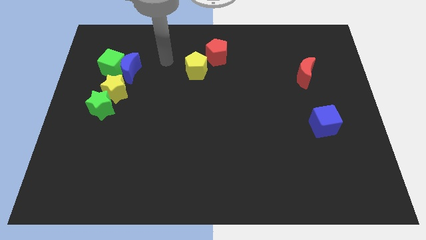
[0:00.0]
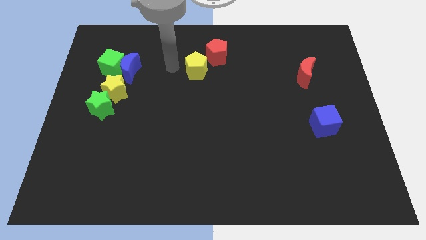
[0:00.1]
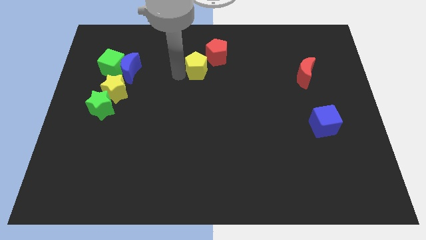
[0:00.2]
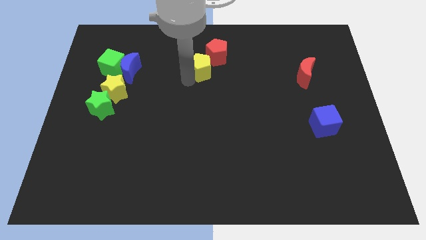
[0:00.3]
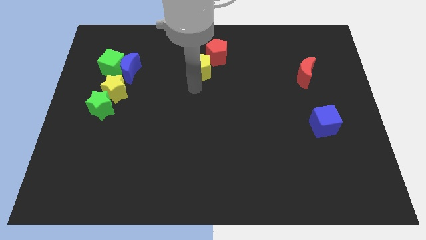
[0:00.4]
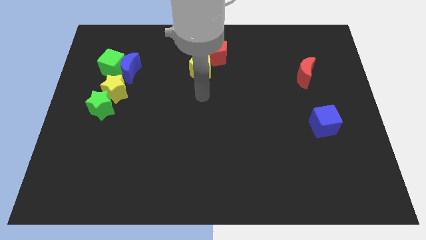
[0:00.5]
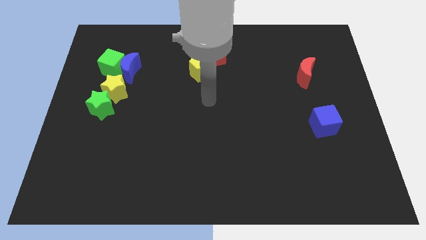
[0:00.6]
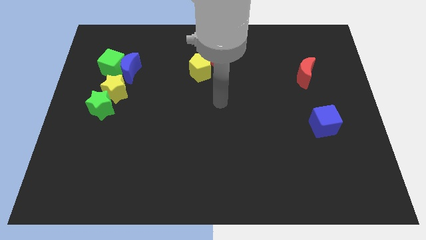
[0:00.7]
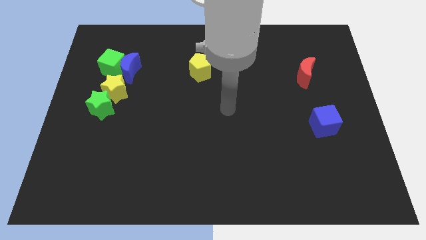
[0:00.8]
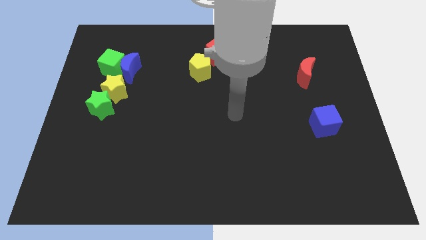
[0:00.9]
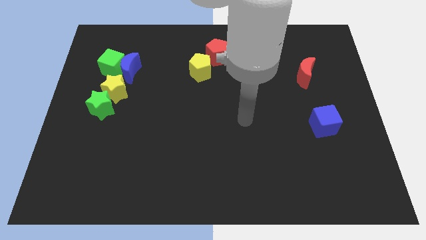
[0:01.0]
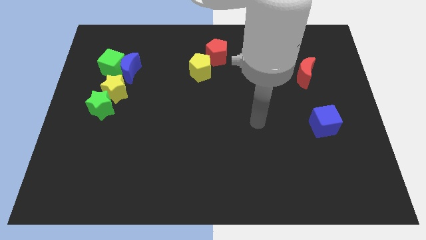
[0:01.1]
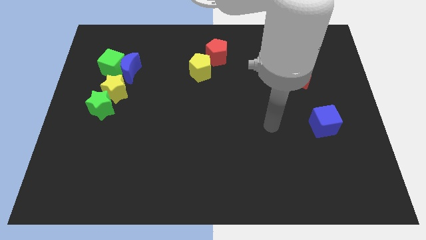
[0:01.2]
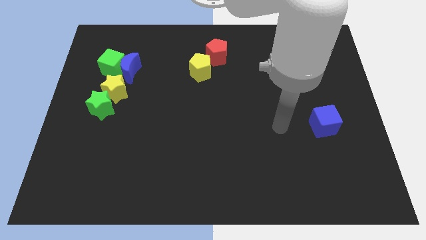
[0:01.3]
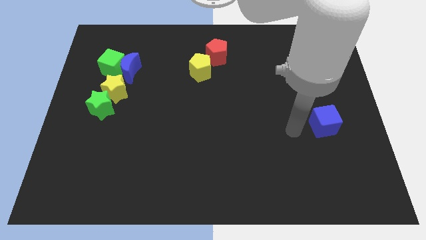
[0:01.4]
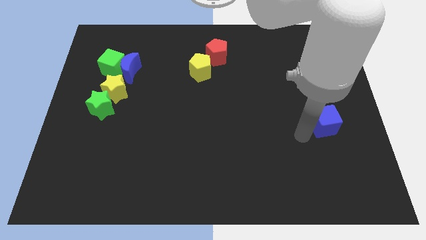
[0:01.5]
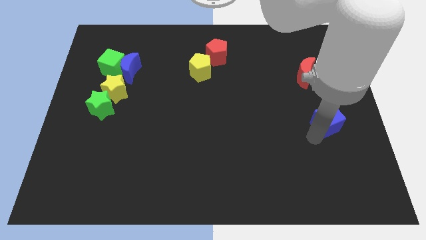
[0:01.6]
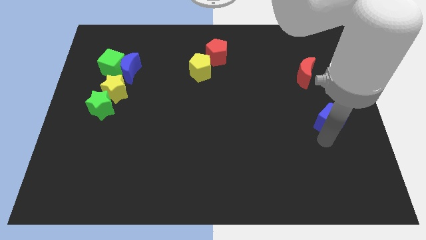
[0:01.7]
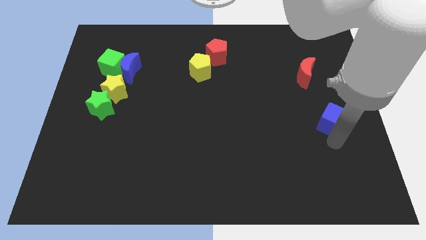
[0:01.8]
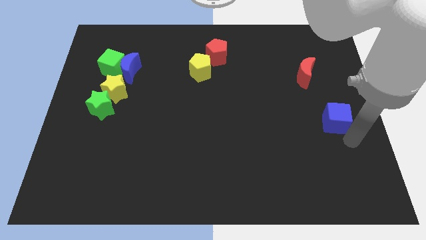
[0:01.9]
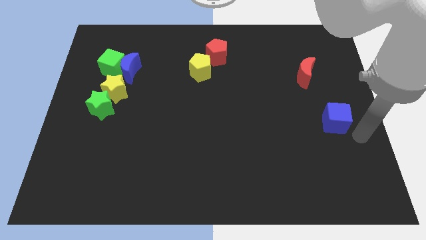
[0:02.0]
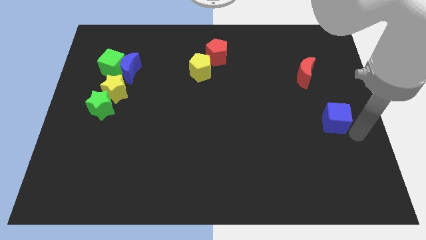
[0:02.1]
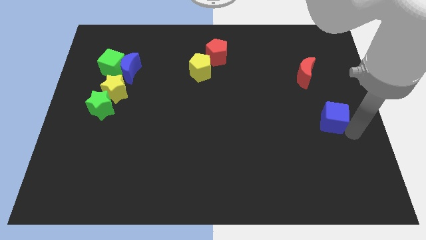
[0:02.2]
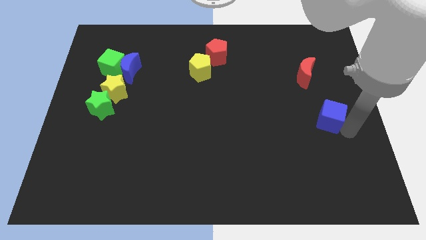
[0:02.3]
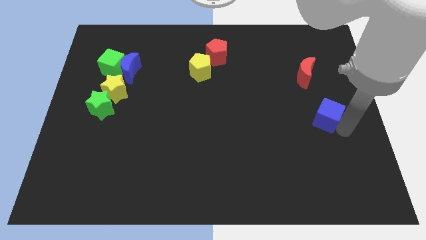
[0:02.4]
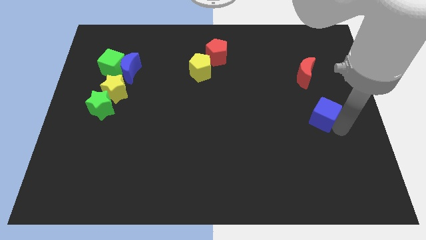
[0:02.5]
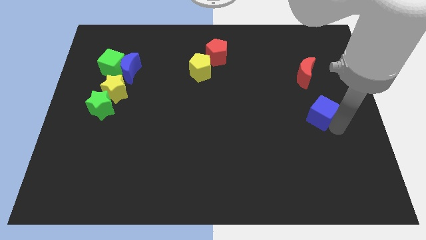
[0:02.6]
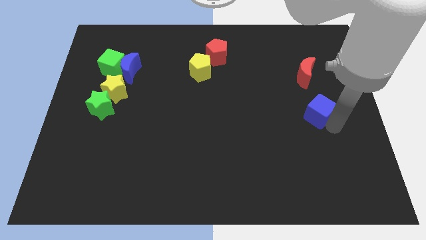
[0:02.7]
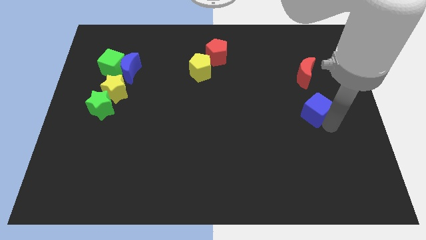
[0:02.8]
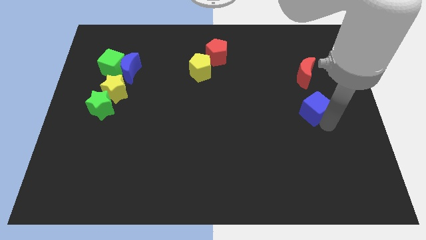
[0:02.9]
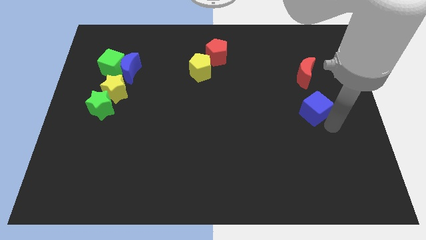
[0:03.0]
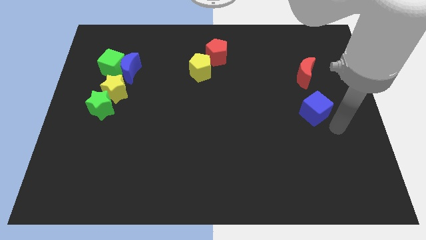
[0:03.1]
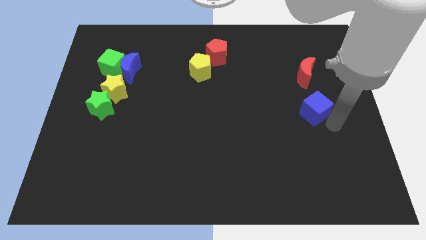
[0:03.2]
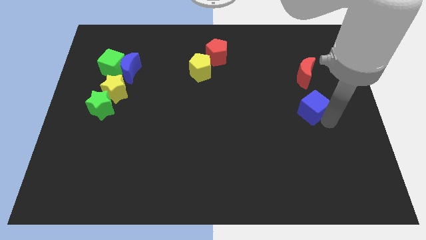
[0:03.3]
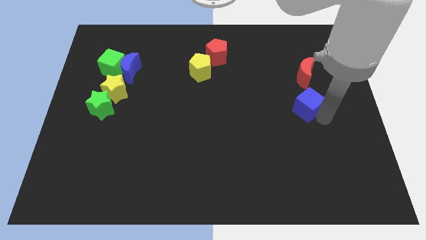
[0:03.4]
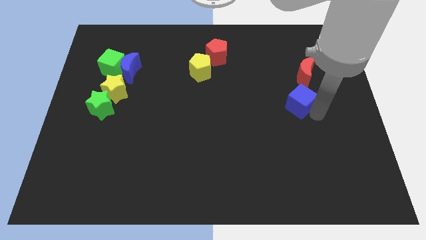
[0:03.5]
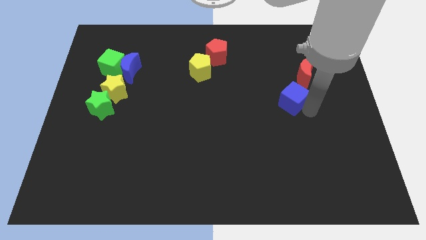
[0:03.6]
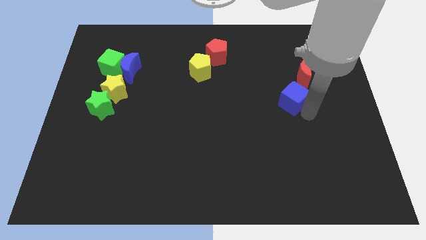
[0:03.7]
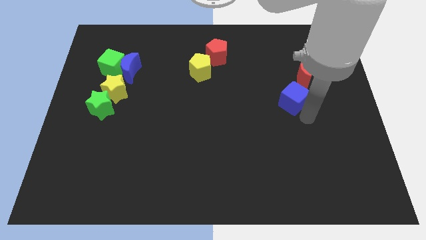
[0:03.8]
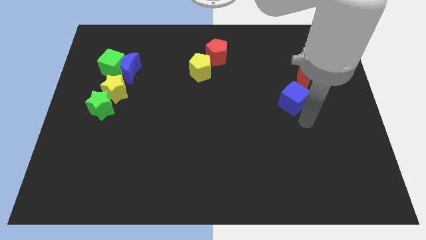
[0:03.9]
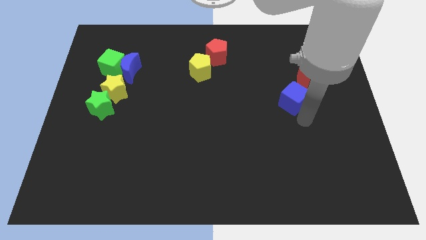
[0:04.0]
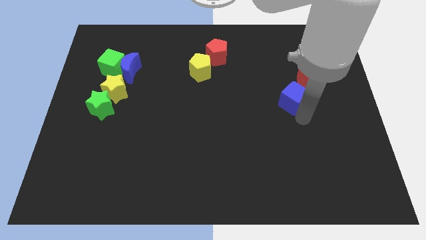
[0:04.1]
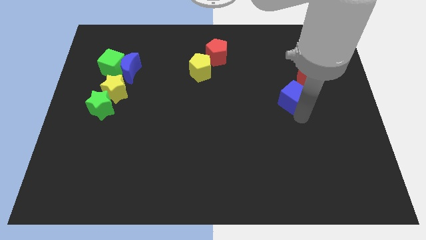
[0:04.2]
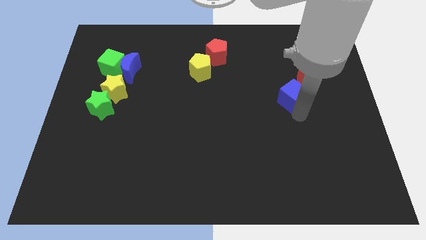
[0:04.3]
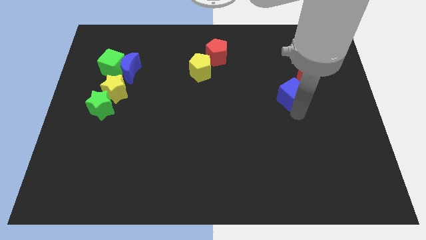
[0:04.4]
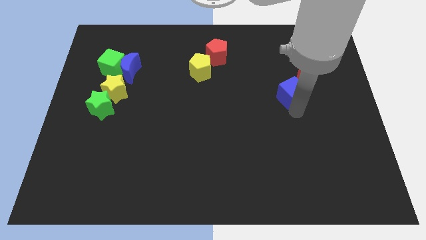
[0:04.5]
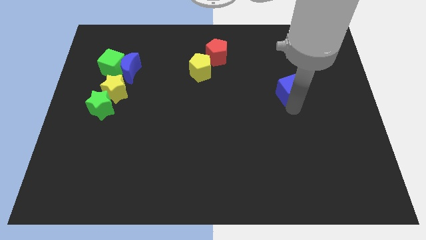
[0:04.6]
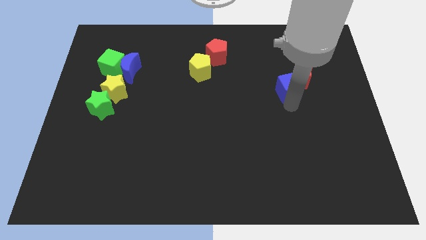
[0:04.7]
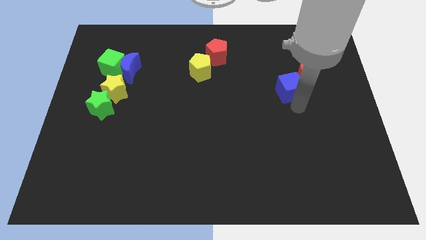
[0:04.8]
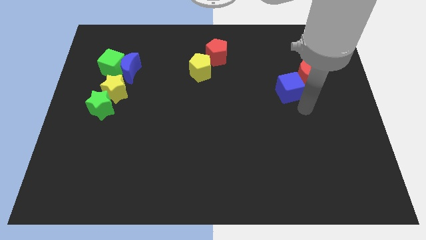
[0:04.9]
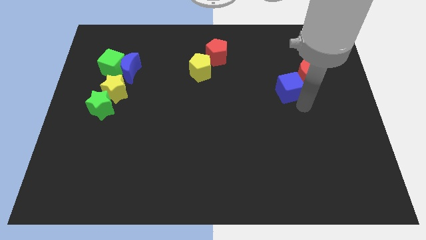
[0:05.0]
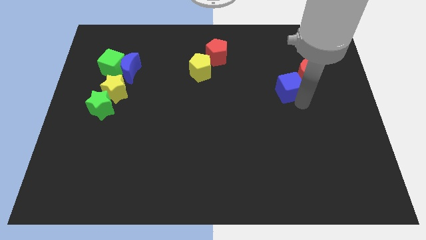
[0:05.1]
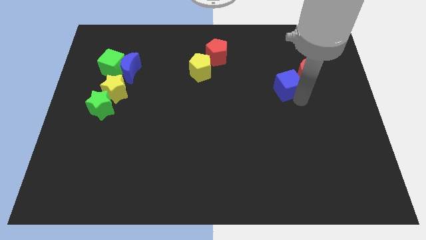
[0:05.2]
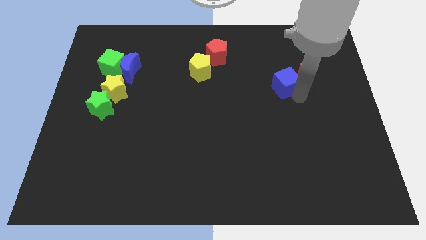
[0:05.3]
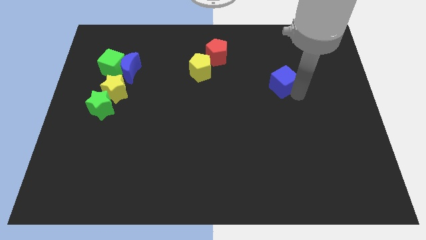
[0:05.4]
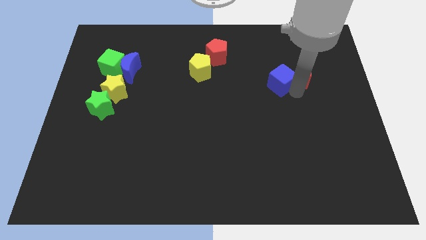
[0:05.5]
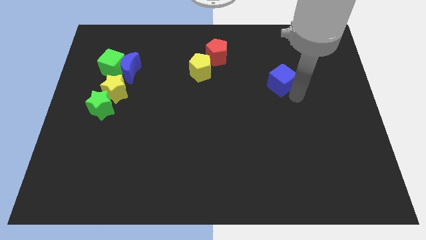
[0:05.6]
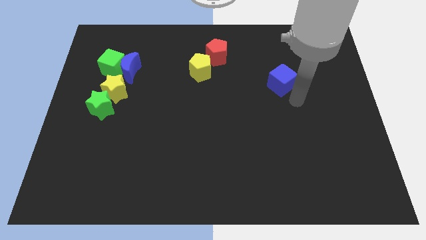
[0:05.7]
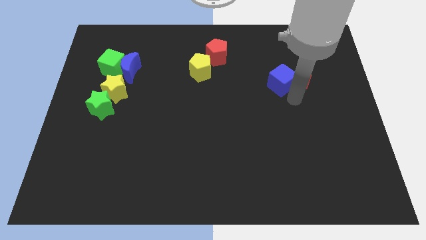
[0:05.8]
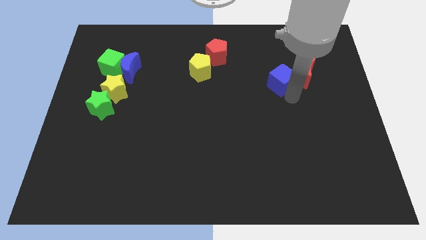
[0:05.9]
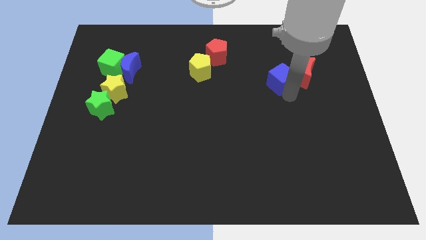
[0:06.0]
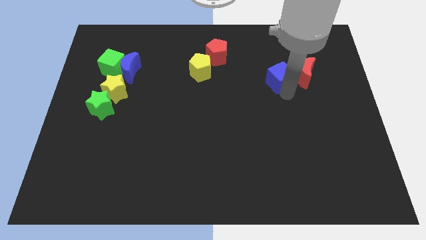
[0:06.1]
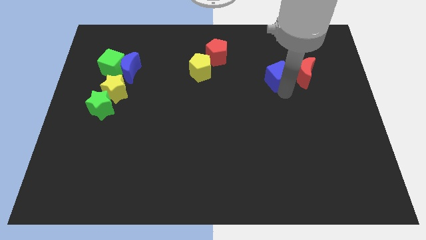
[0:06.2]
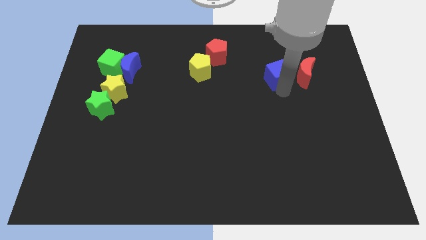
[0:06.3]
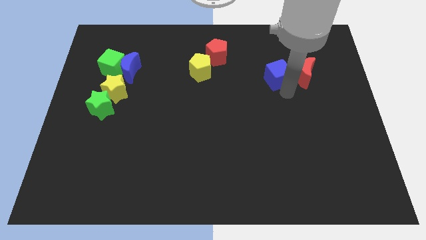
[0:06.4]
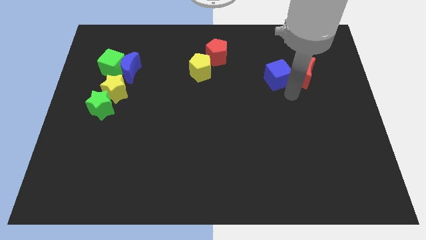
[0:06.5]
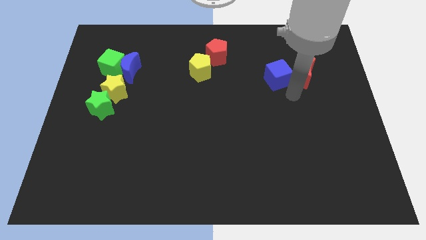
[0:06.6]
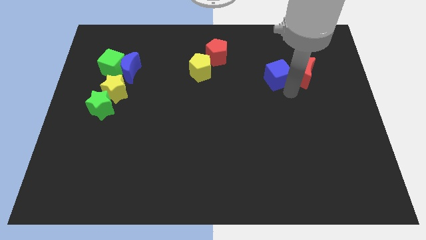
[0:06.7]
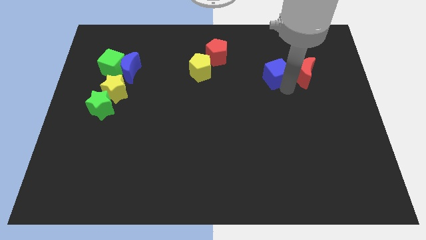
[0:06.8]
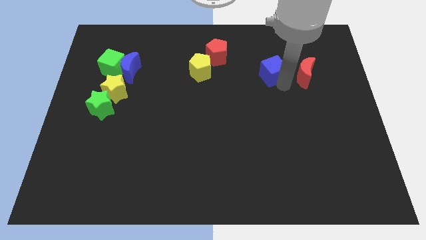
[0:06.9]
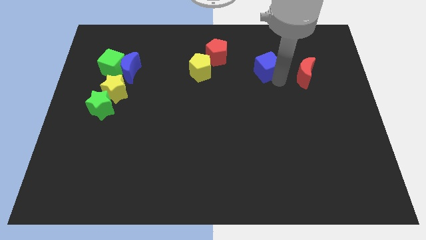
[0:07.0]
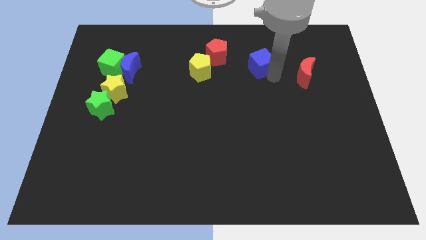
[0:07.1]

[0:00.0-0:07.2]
push the blue cube to the right of the red pentagon
